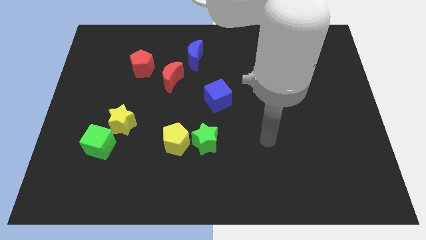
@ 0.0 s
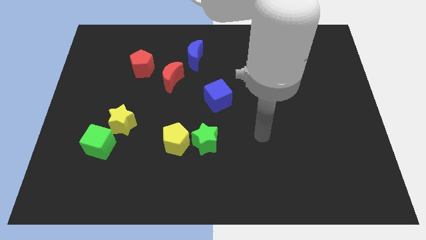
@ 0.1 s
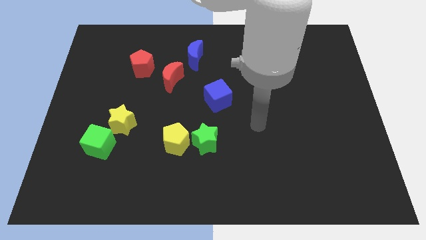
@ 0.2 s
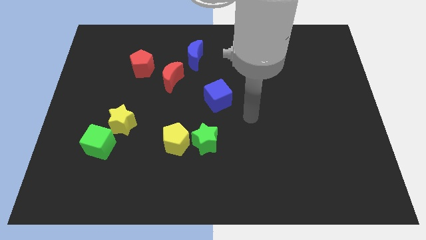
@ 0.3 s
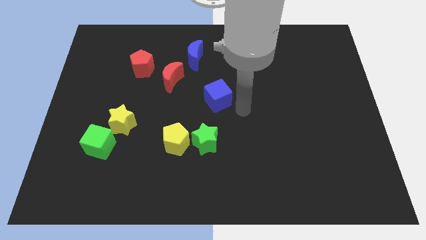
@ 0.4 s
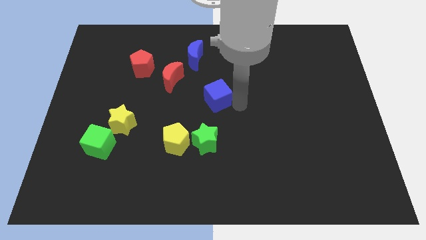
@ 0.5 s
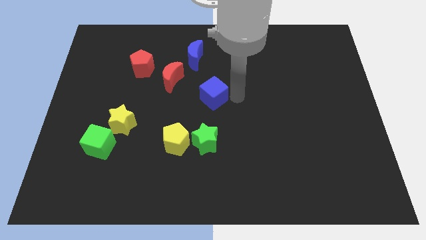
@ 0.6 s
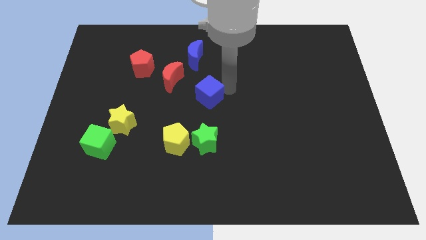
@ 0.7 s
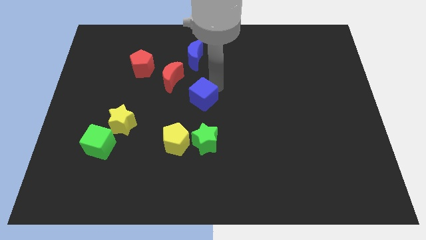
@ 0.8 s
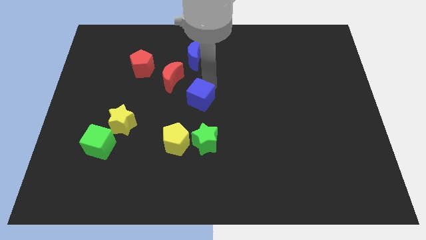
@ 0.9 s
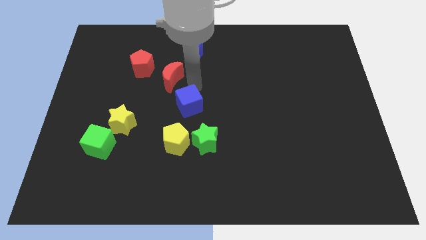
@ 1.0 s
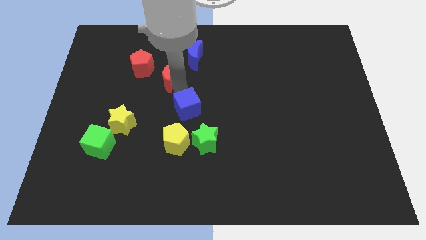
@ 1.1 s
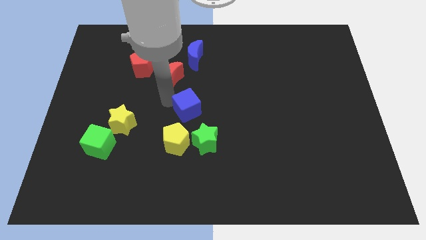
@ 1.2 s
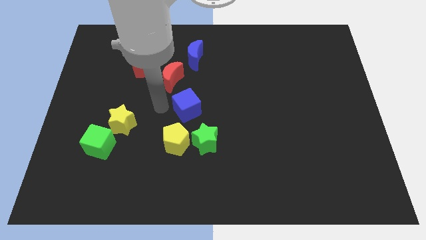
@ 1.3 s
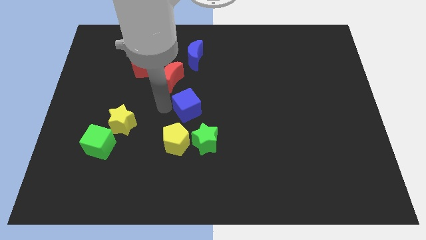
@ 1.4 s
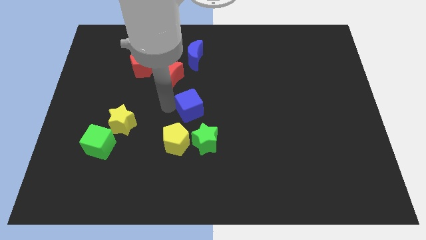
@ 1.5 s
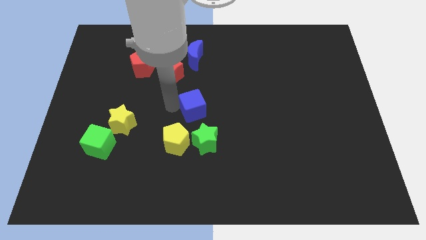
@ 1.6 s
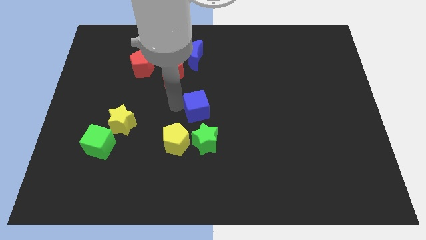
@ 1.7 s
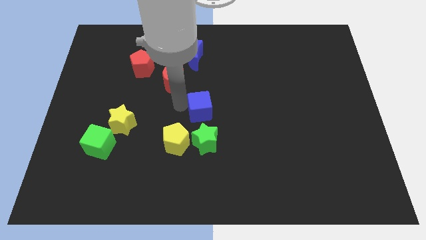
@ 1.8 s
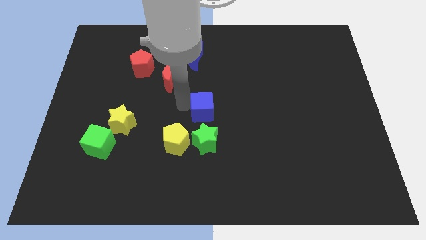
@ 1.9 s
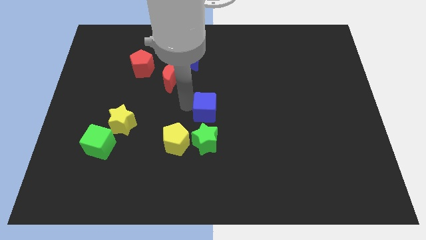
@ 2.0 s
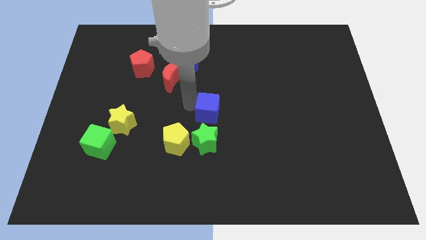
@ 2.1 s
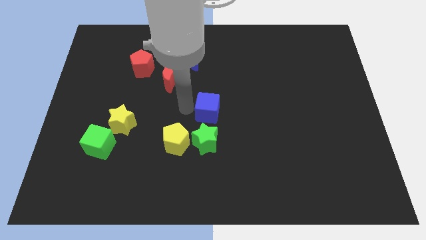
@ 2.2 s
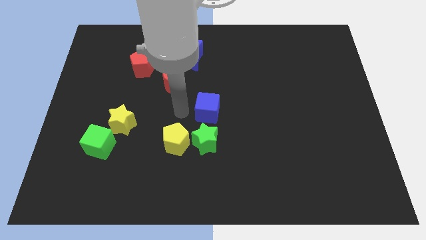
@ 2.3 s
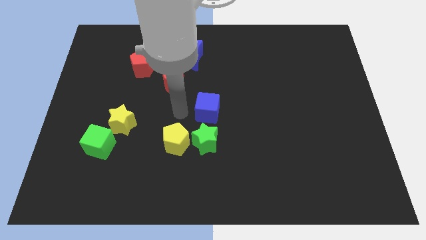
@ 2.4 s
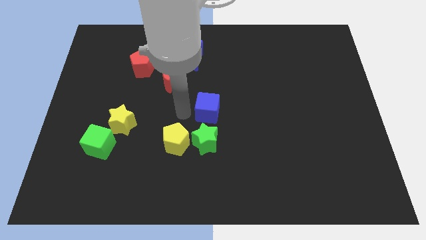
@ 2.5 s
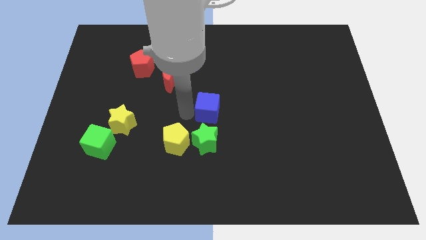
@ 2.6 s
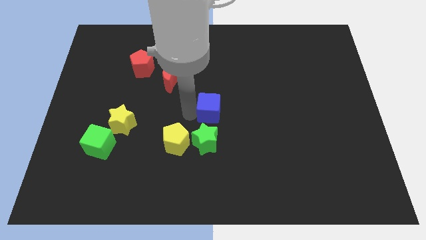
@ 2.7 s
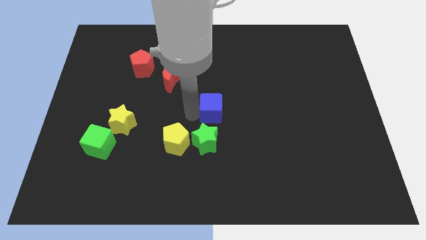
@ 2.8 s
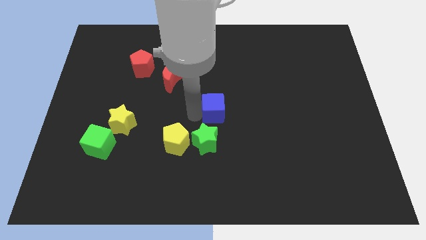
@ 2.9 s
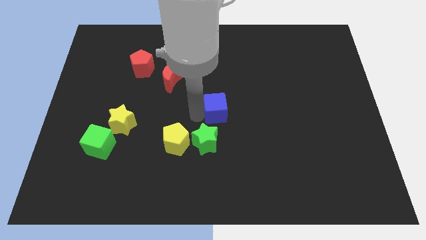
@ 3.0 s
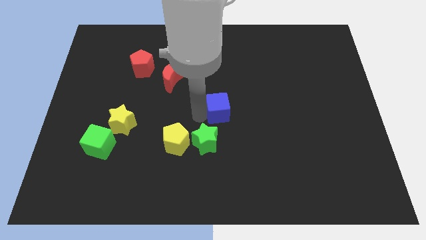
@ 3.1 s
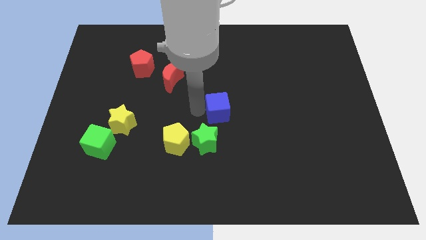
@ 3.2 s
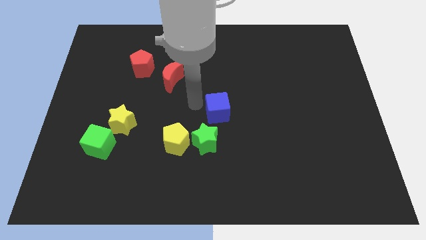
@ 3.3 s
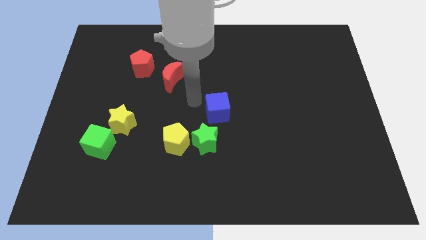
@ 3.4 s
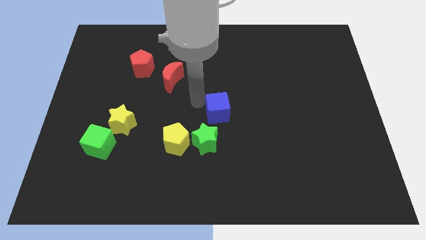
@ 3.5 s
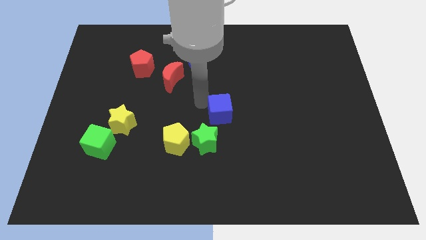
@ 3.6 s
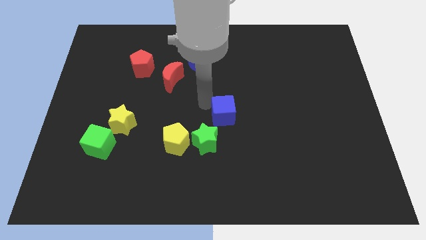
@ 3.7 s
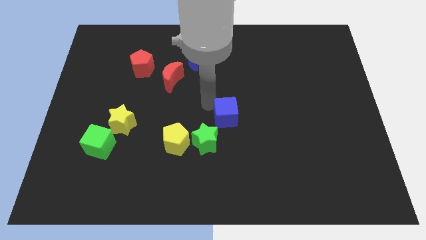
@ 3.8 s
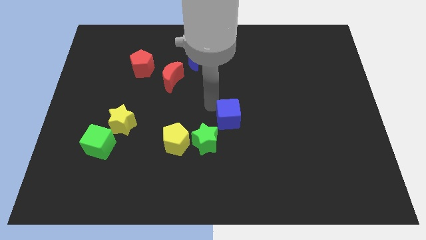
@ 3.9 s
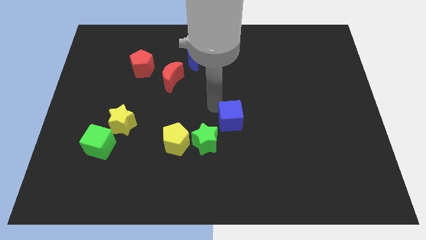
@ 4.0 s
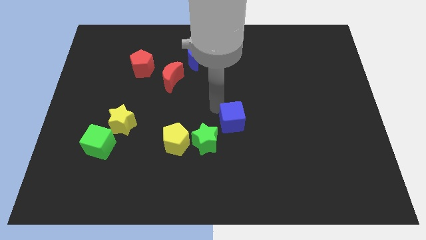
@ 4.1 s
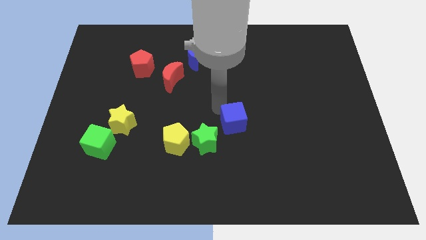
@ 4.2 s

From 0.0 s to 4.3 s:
slightly push the blue cube diagonally down and to the right

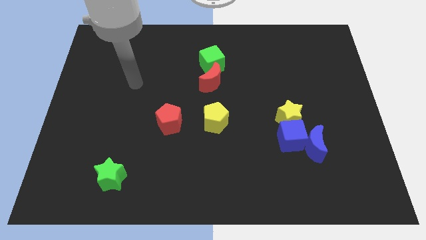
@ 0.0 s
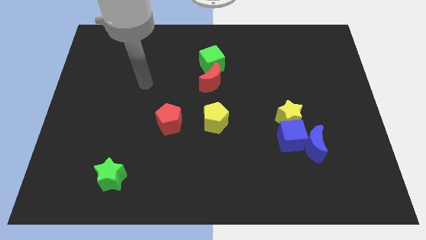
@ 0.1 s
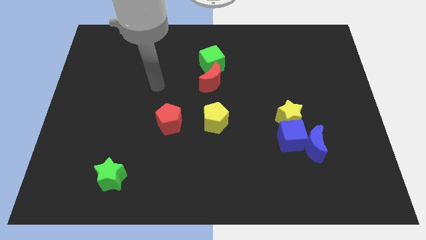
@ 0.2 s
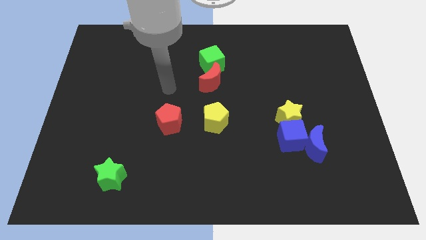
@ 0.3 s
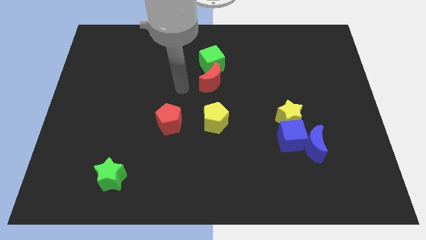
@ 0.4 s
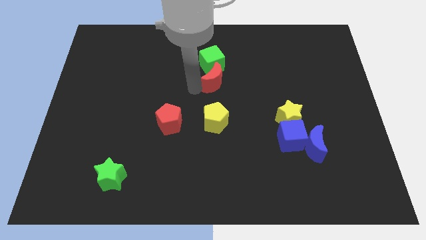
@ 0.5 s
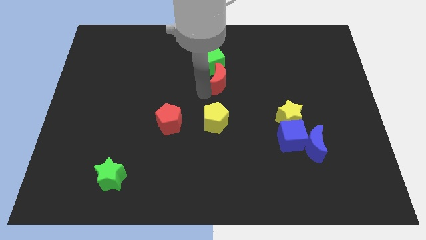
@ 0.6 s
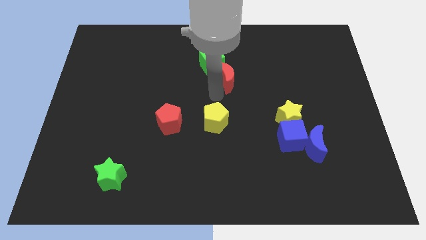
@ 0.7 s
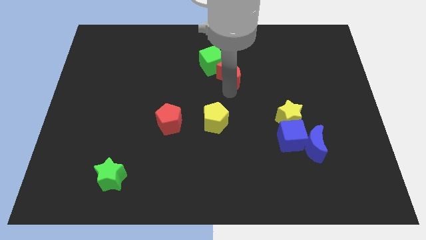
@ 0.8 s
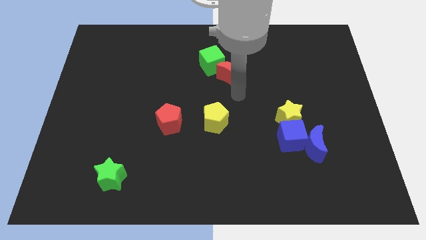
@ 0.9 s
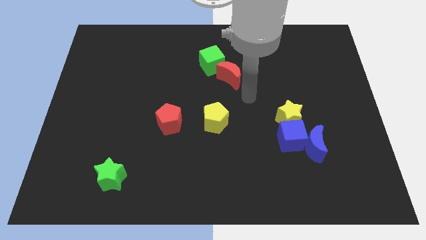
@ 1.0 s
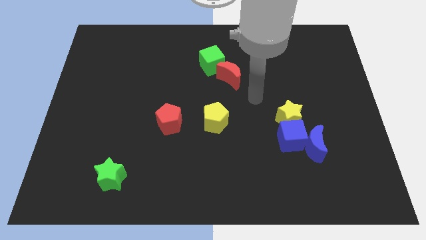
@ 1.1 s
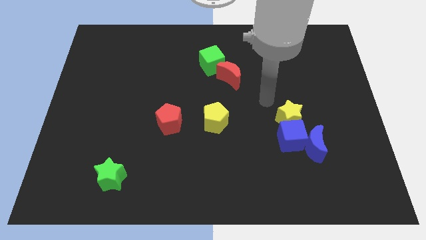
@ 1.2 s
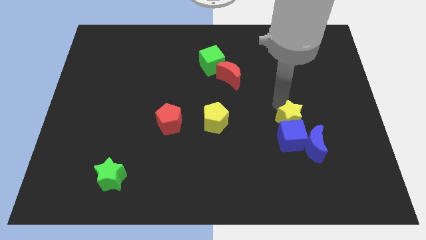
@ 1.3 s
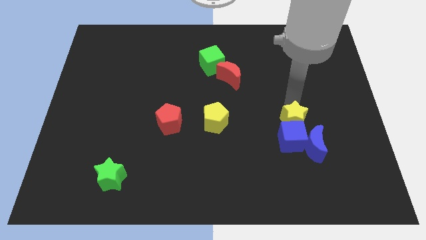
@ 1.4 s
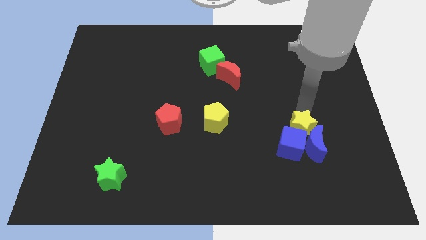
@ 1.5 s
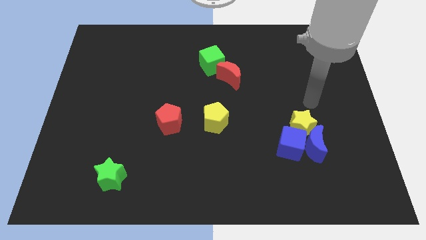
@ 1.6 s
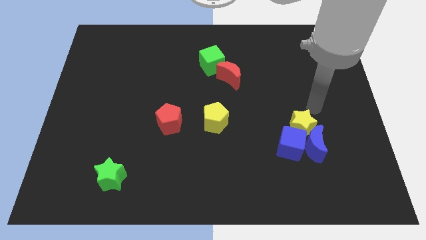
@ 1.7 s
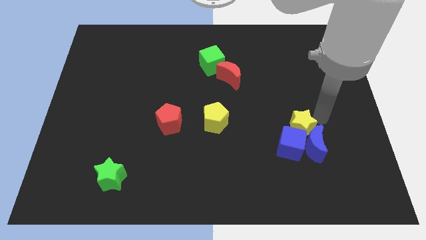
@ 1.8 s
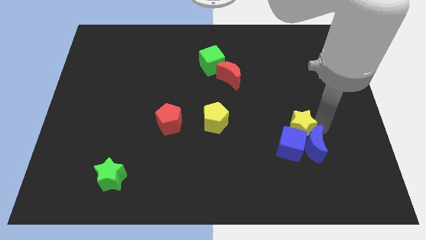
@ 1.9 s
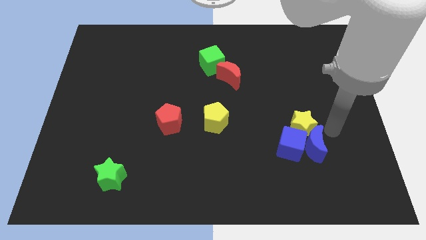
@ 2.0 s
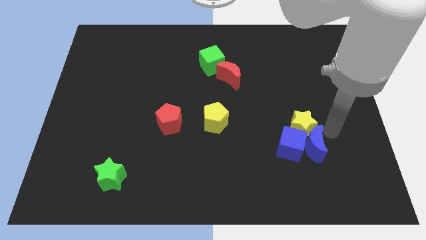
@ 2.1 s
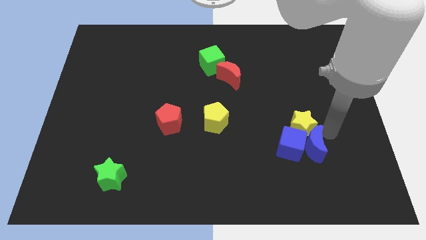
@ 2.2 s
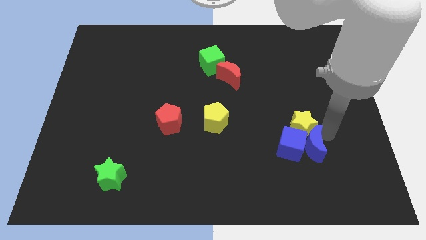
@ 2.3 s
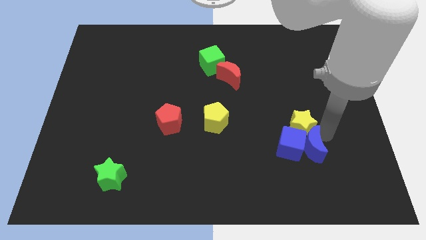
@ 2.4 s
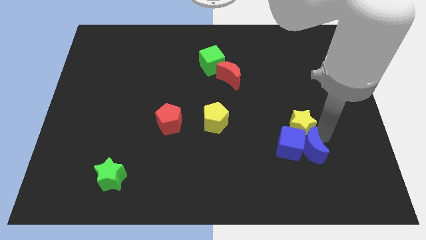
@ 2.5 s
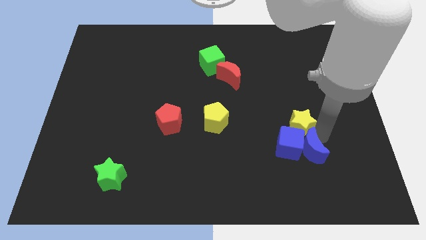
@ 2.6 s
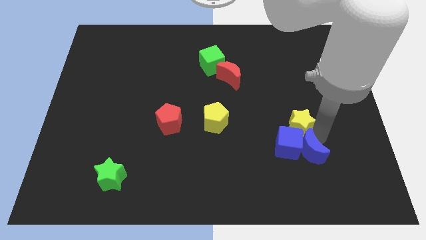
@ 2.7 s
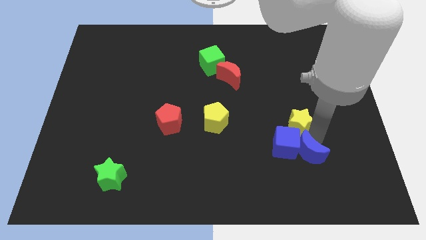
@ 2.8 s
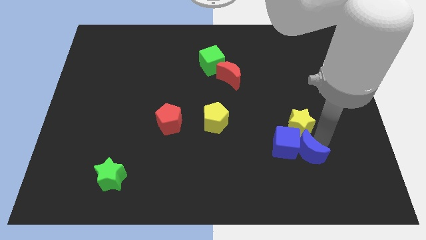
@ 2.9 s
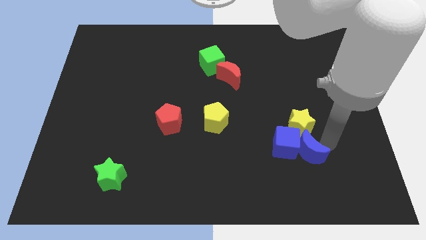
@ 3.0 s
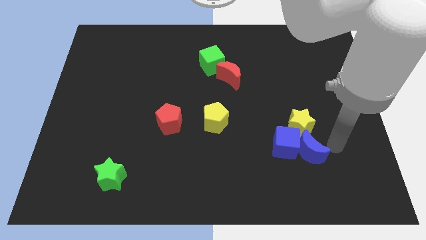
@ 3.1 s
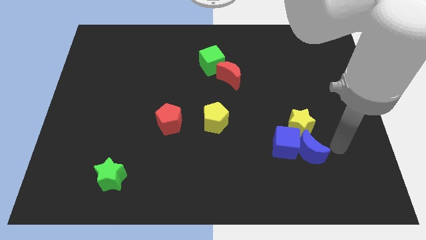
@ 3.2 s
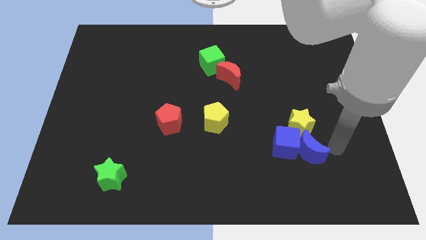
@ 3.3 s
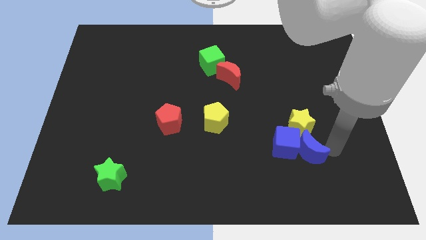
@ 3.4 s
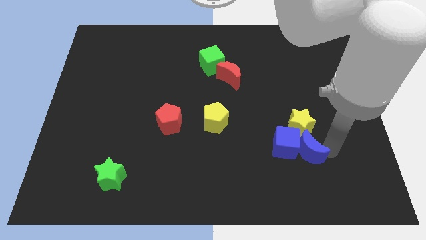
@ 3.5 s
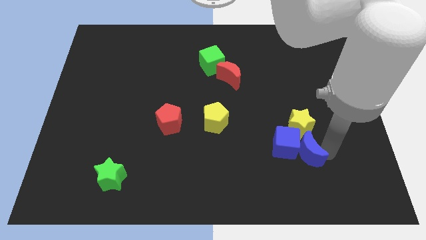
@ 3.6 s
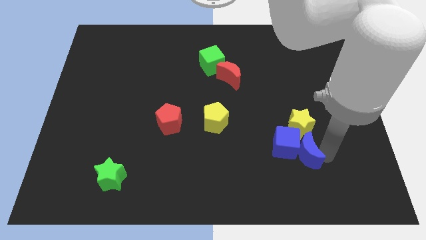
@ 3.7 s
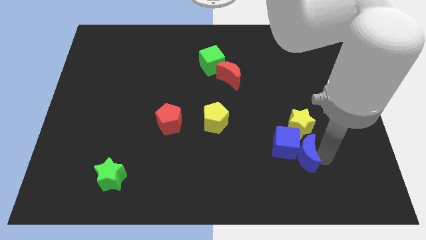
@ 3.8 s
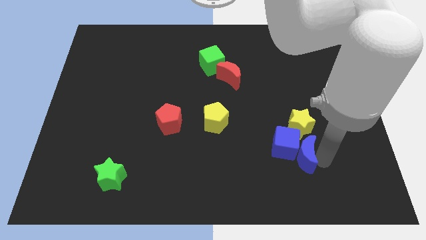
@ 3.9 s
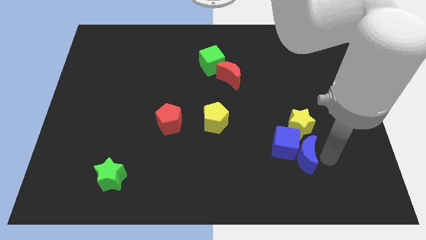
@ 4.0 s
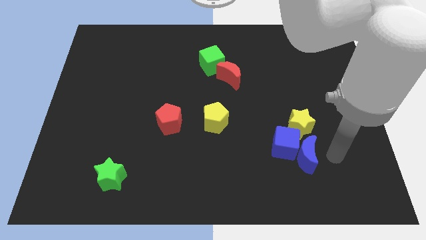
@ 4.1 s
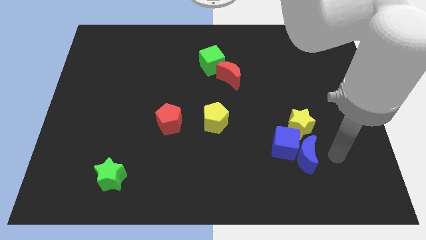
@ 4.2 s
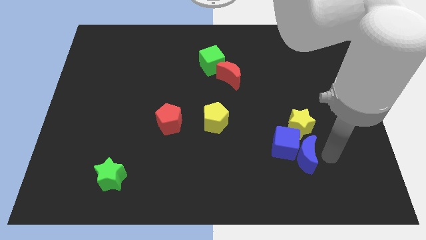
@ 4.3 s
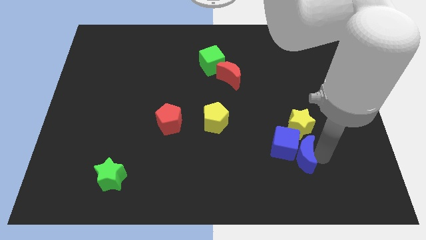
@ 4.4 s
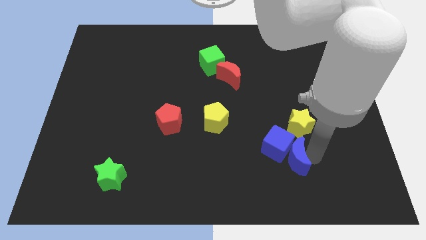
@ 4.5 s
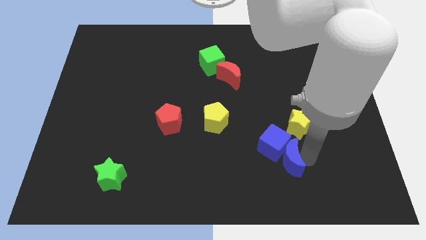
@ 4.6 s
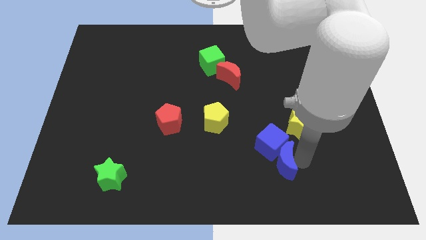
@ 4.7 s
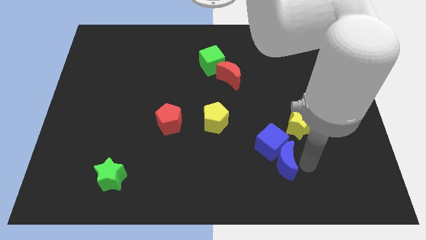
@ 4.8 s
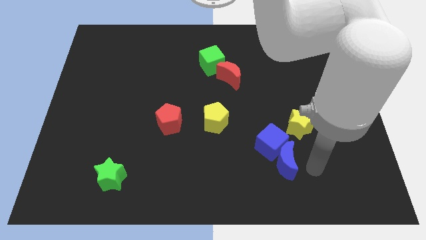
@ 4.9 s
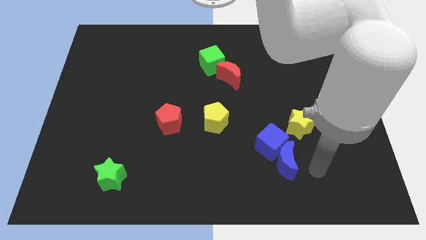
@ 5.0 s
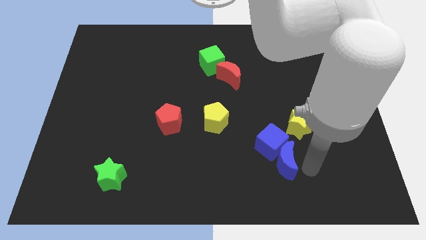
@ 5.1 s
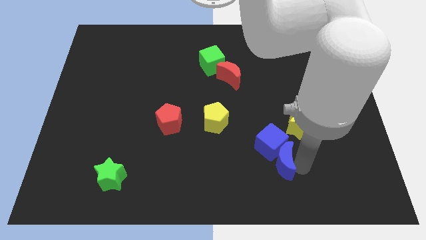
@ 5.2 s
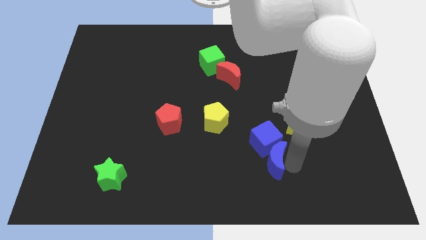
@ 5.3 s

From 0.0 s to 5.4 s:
slide the blue moon to the left a little bit
